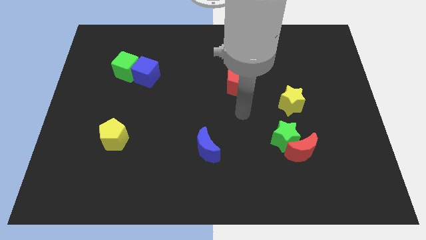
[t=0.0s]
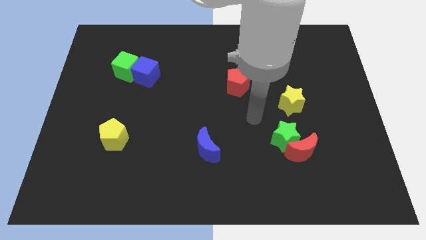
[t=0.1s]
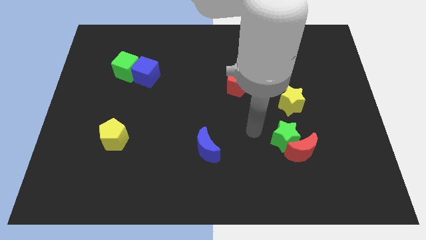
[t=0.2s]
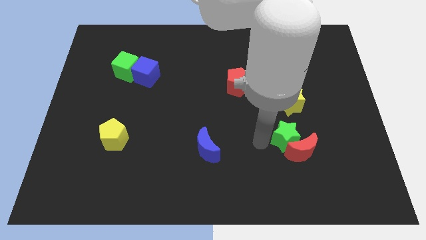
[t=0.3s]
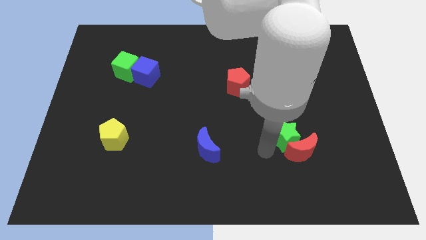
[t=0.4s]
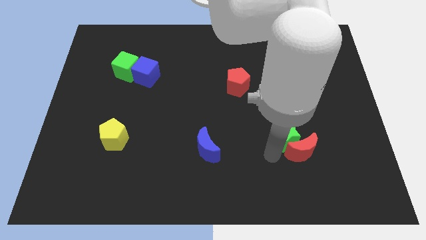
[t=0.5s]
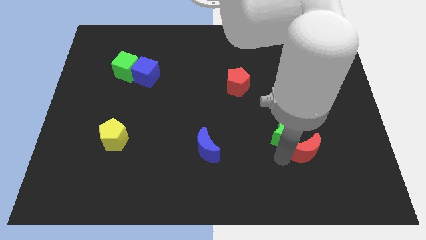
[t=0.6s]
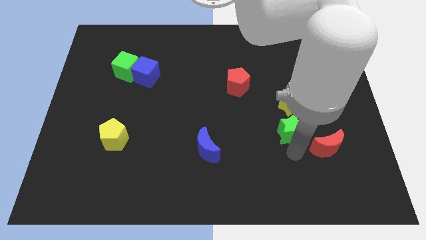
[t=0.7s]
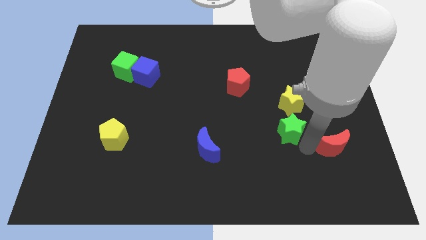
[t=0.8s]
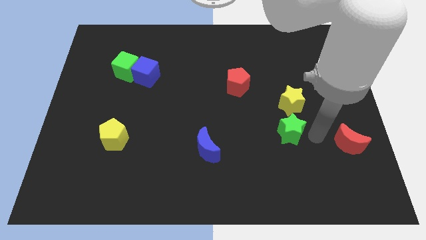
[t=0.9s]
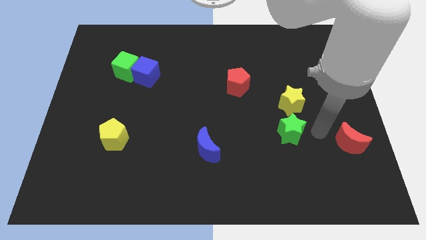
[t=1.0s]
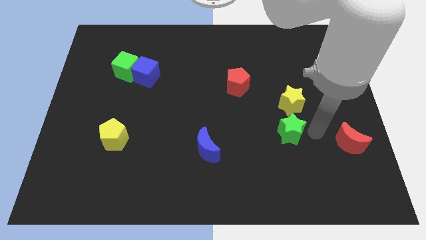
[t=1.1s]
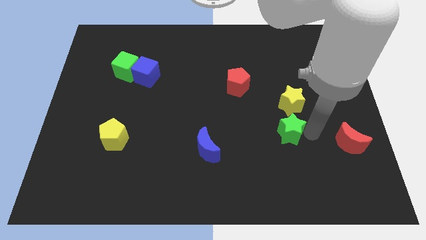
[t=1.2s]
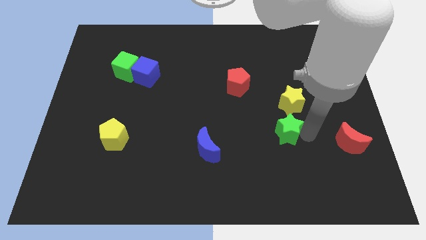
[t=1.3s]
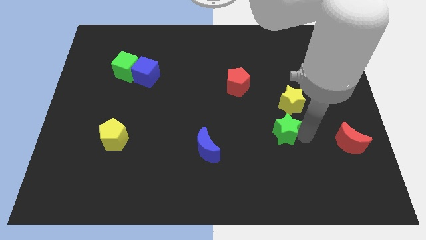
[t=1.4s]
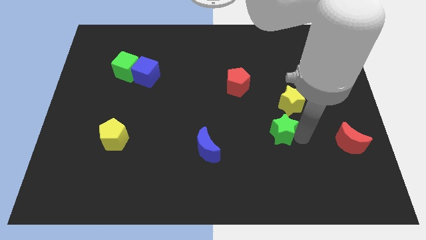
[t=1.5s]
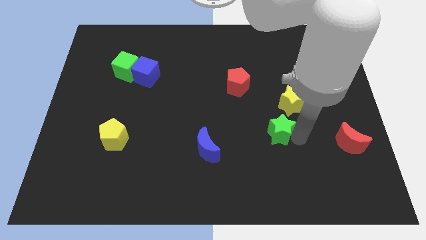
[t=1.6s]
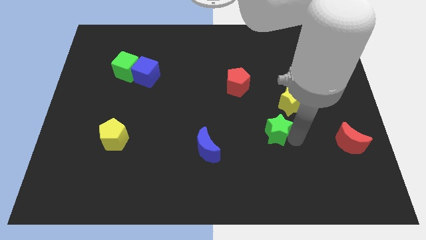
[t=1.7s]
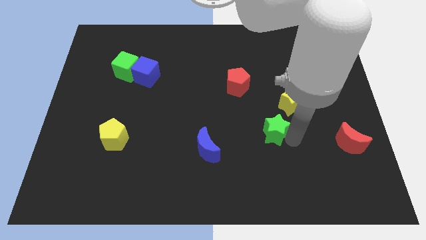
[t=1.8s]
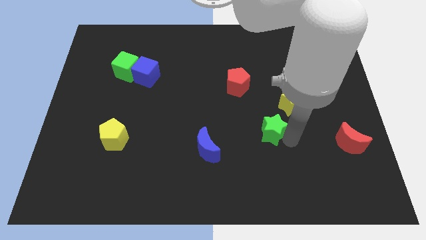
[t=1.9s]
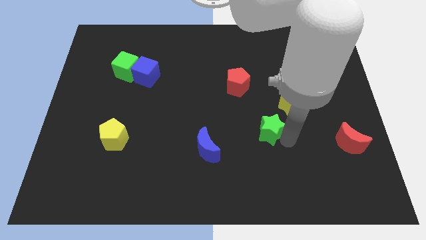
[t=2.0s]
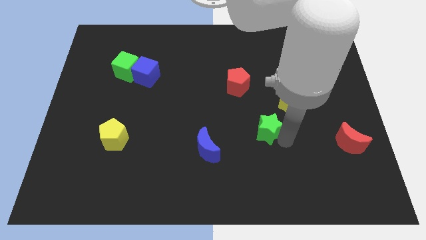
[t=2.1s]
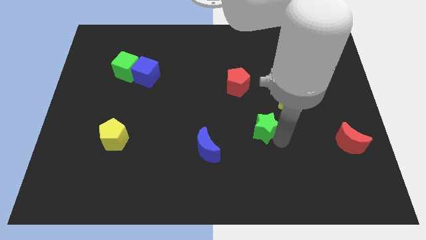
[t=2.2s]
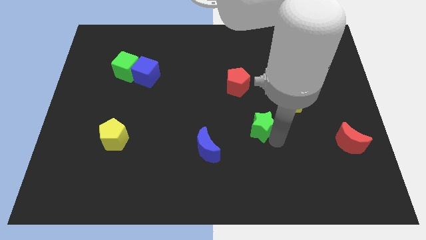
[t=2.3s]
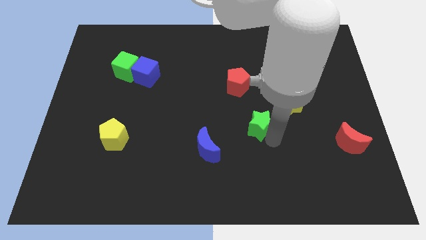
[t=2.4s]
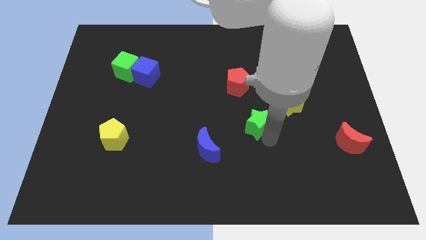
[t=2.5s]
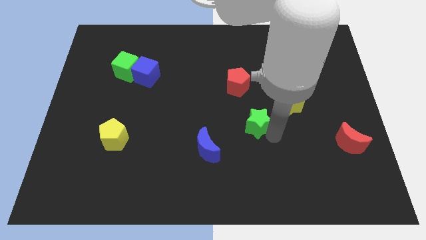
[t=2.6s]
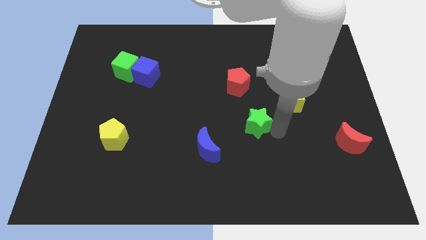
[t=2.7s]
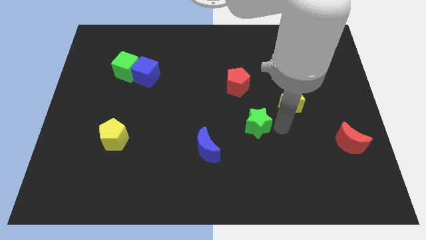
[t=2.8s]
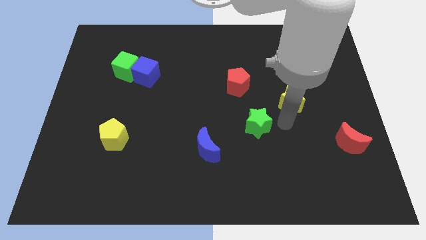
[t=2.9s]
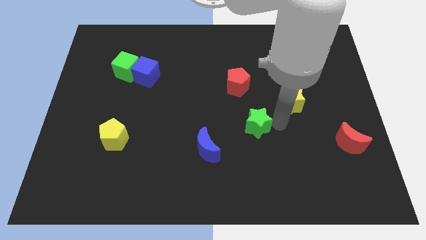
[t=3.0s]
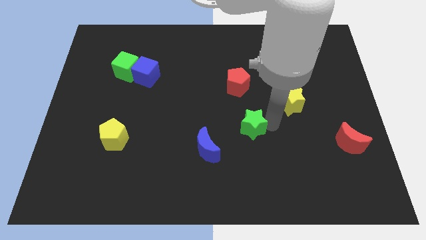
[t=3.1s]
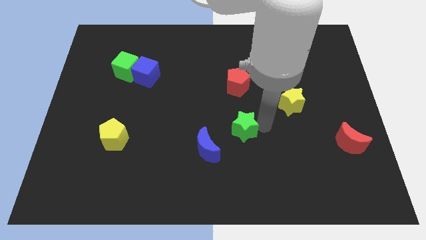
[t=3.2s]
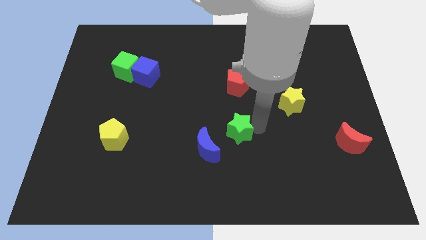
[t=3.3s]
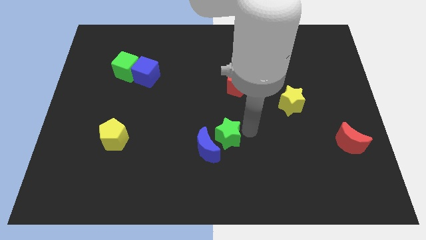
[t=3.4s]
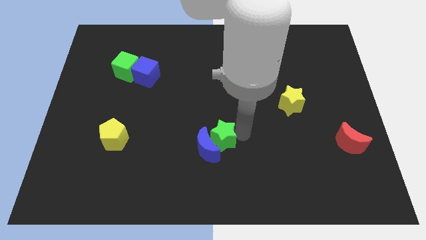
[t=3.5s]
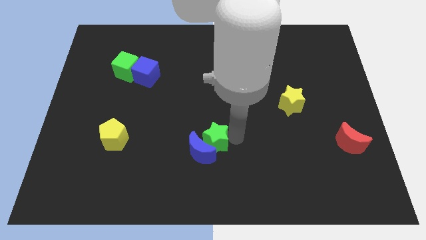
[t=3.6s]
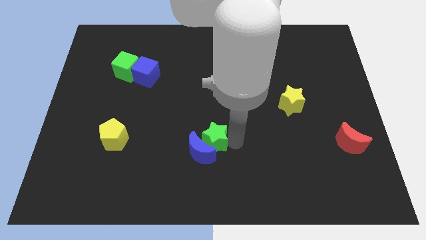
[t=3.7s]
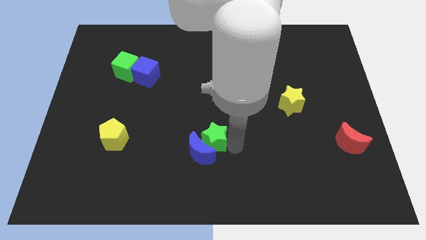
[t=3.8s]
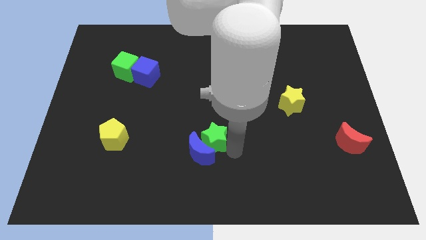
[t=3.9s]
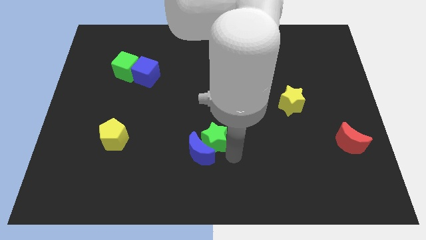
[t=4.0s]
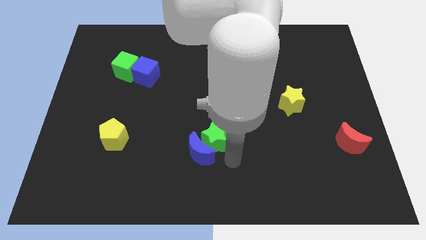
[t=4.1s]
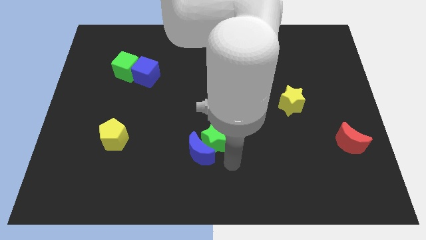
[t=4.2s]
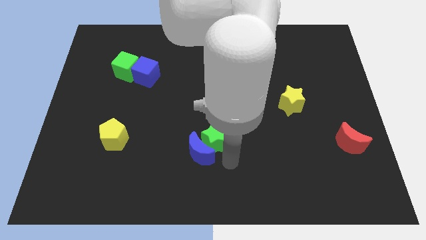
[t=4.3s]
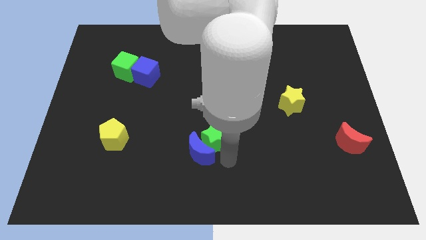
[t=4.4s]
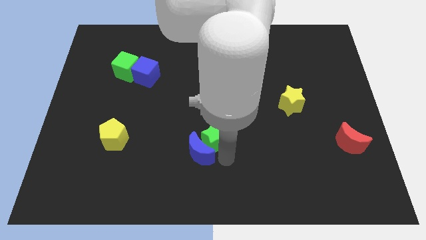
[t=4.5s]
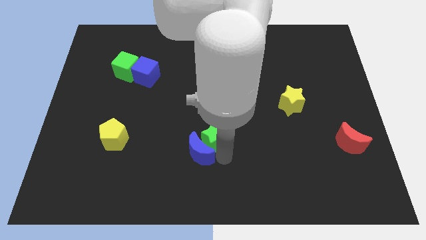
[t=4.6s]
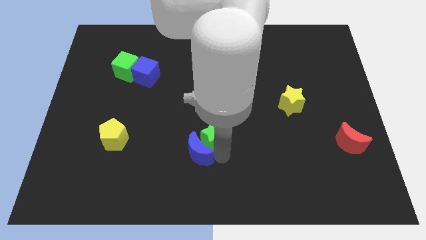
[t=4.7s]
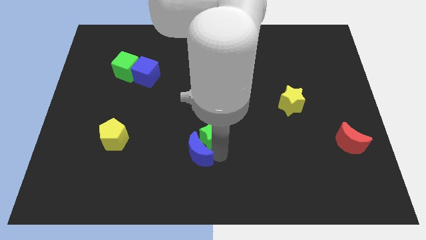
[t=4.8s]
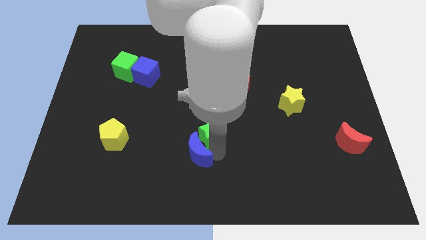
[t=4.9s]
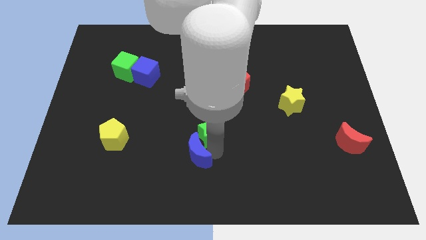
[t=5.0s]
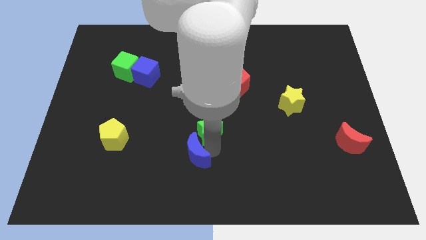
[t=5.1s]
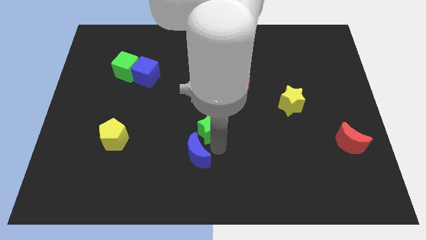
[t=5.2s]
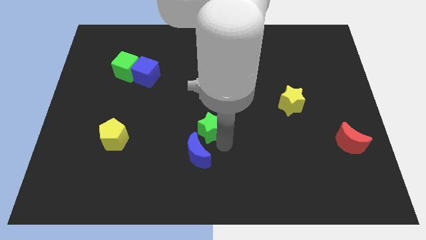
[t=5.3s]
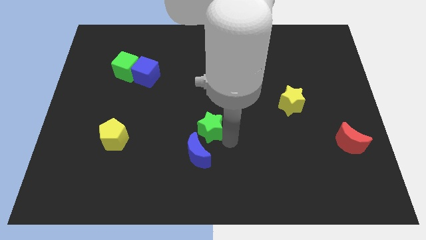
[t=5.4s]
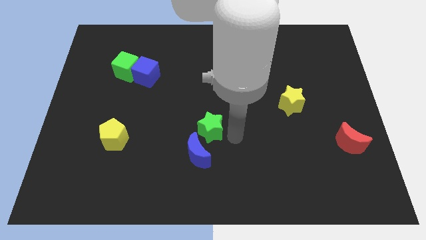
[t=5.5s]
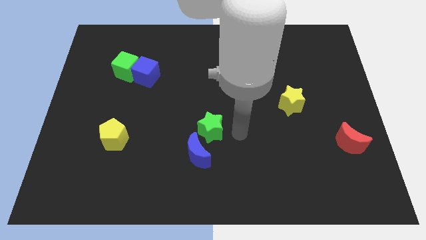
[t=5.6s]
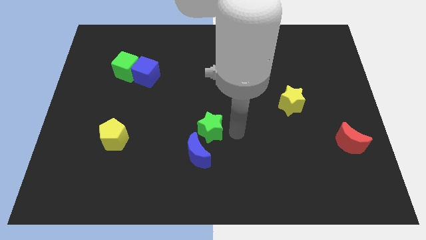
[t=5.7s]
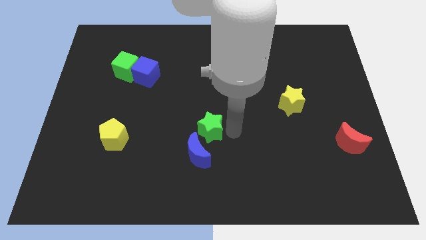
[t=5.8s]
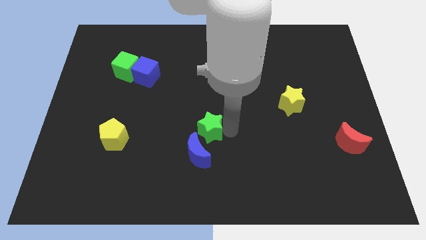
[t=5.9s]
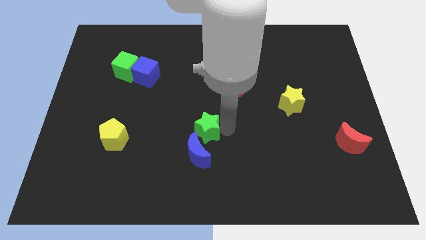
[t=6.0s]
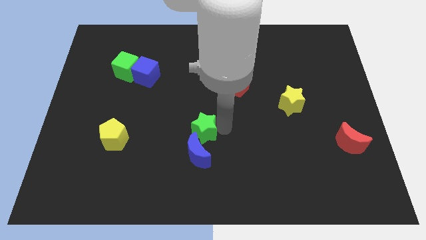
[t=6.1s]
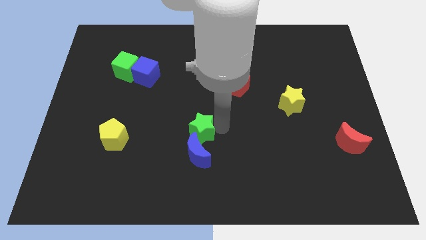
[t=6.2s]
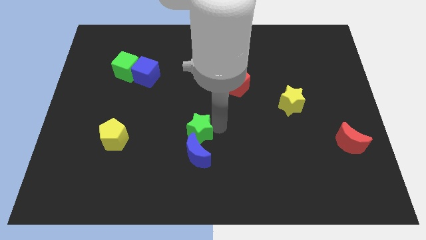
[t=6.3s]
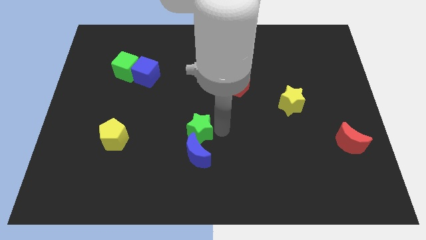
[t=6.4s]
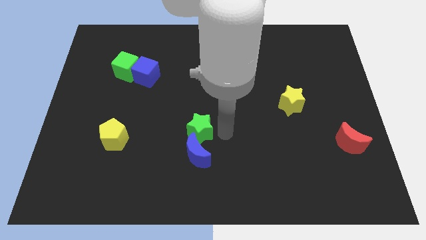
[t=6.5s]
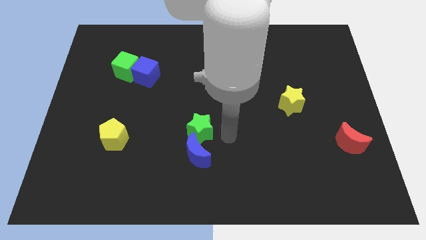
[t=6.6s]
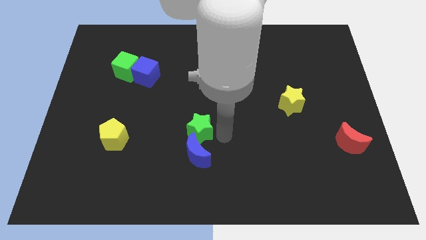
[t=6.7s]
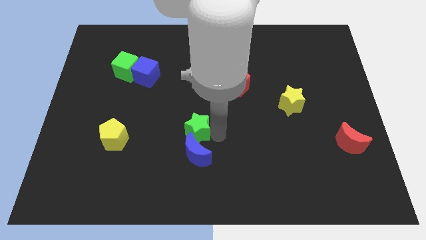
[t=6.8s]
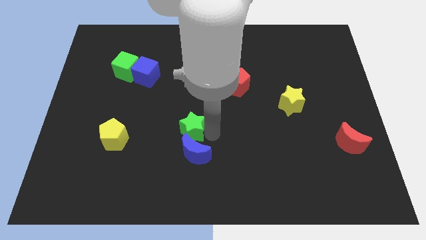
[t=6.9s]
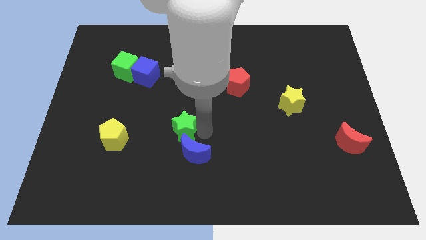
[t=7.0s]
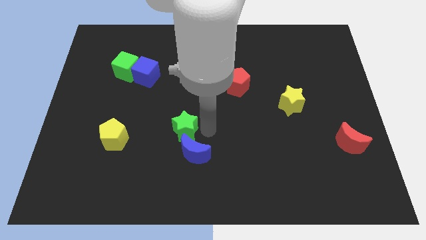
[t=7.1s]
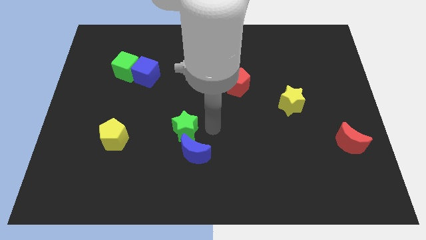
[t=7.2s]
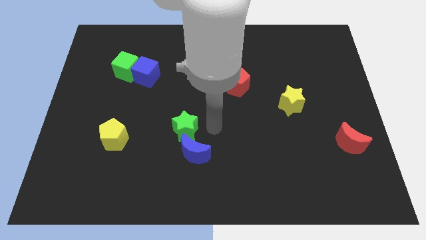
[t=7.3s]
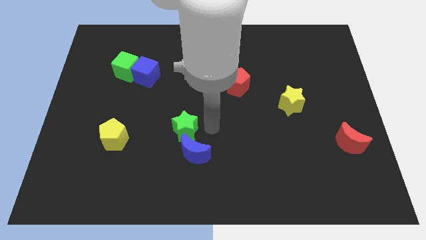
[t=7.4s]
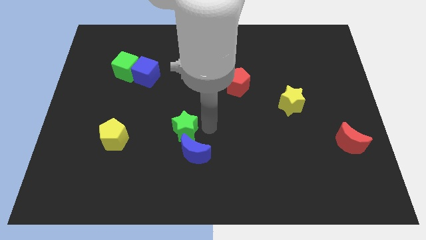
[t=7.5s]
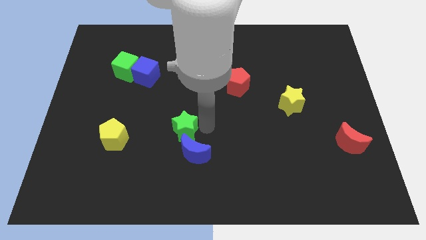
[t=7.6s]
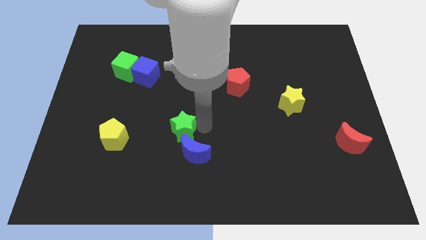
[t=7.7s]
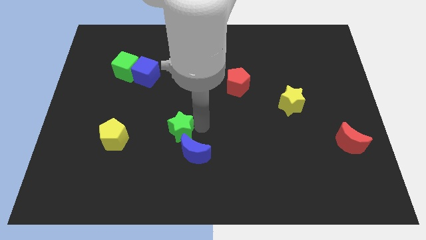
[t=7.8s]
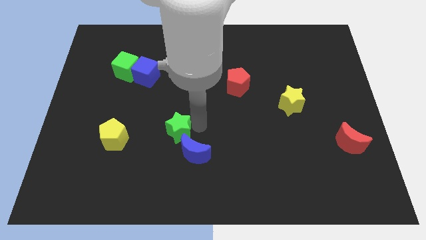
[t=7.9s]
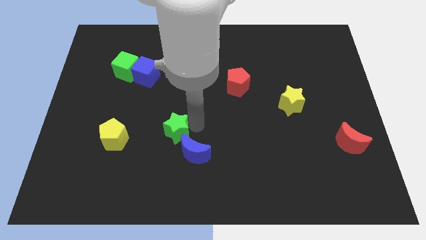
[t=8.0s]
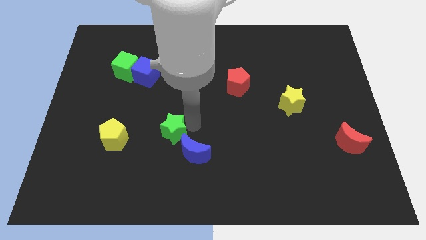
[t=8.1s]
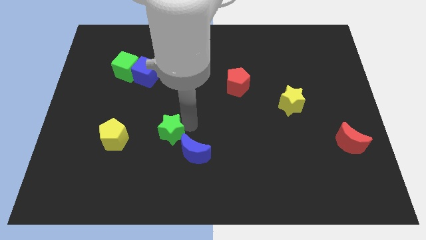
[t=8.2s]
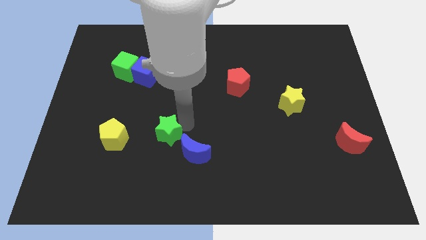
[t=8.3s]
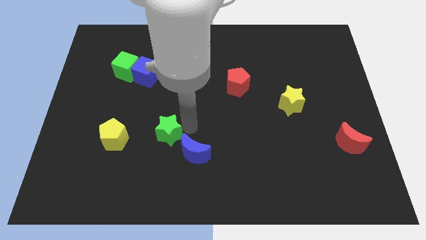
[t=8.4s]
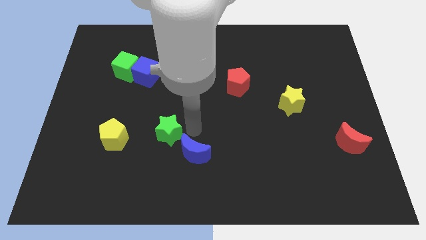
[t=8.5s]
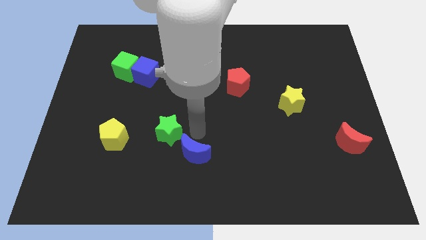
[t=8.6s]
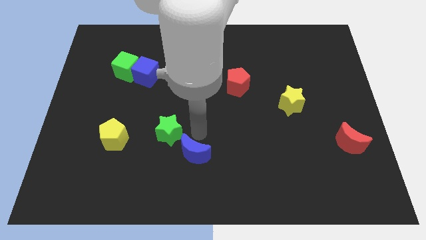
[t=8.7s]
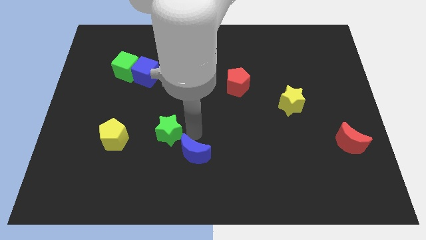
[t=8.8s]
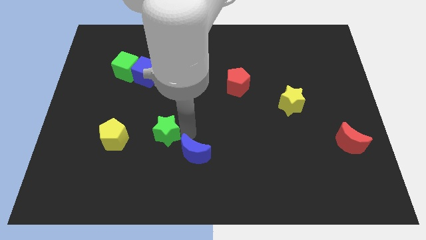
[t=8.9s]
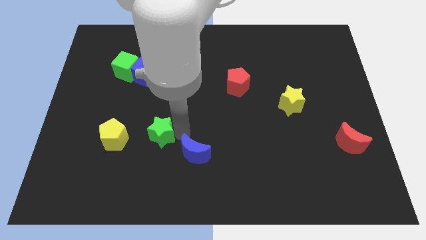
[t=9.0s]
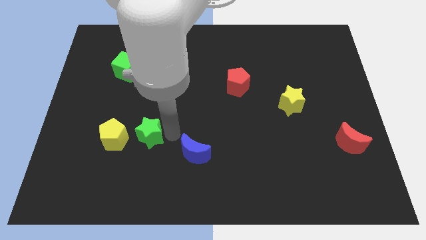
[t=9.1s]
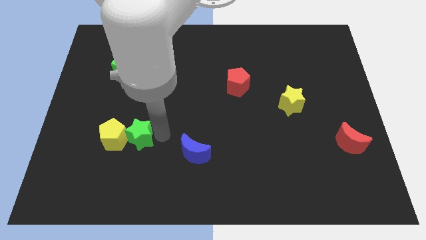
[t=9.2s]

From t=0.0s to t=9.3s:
push the green star close to the yellow pentagon
